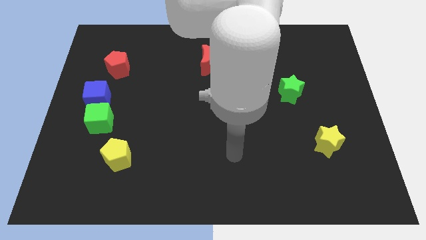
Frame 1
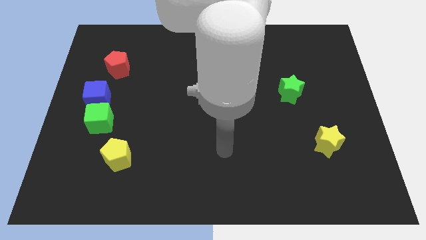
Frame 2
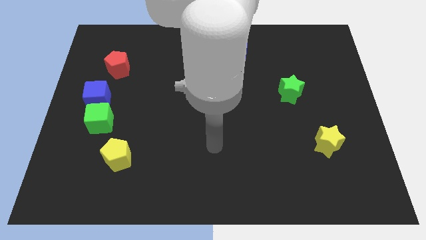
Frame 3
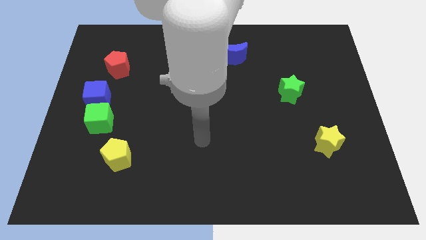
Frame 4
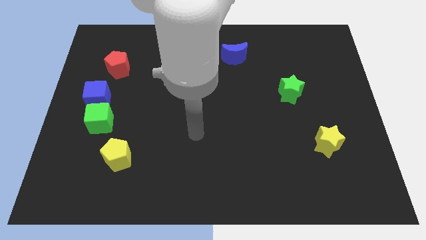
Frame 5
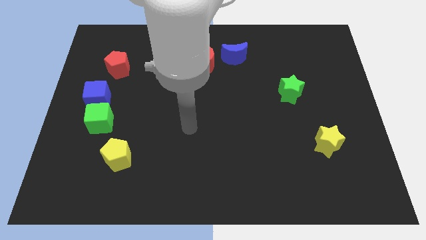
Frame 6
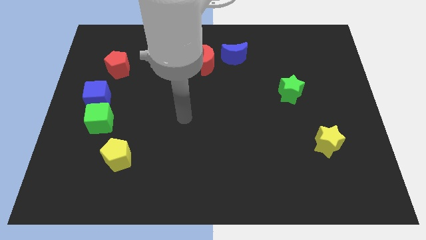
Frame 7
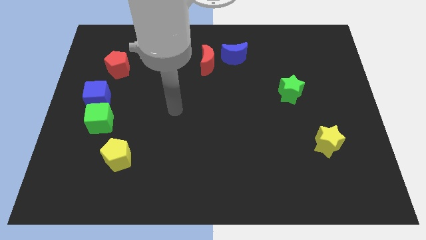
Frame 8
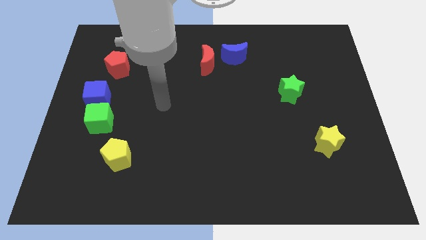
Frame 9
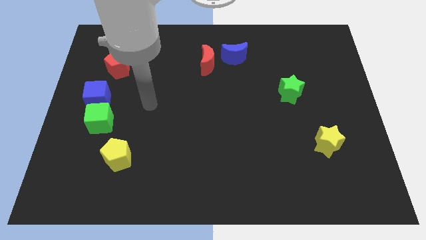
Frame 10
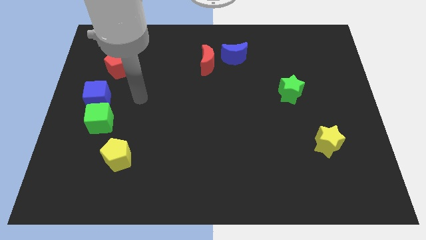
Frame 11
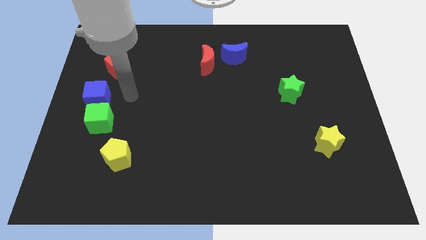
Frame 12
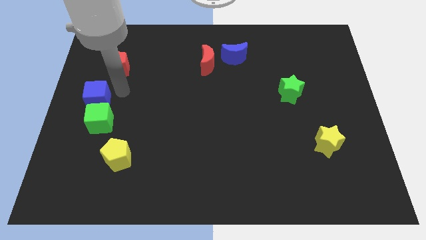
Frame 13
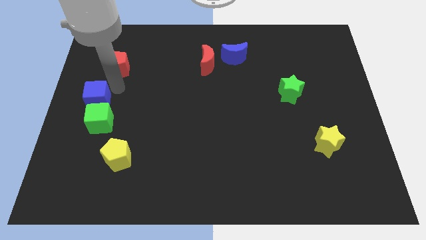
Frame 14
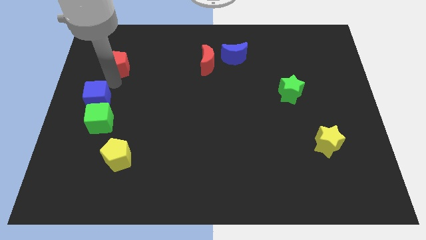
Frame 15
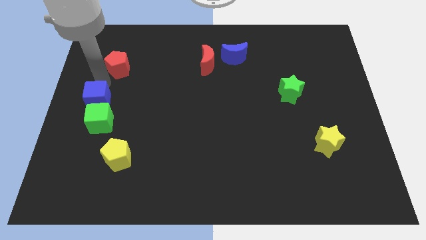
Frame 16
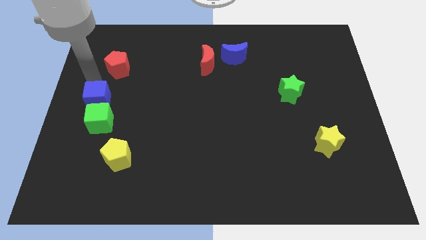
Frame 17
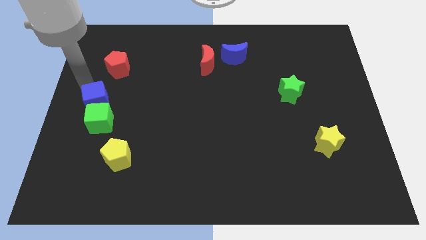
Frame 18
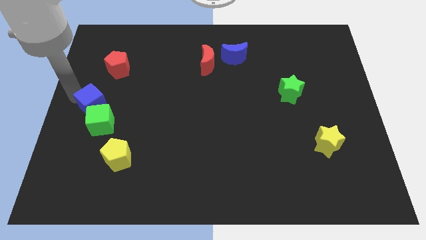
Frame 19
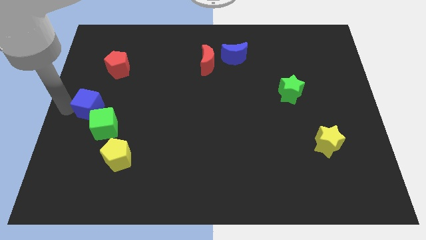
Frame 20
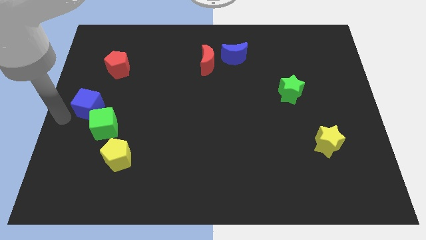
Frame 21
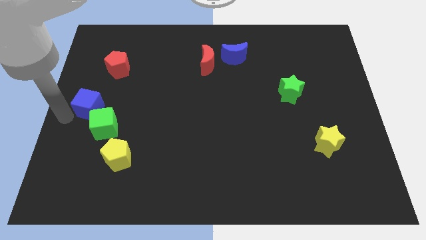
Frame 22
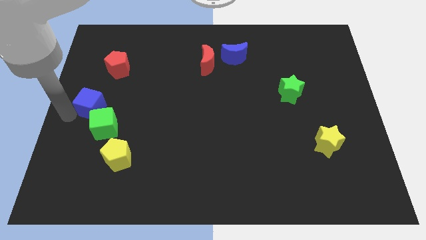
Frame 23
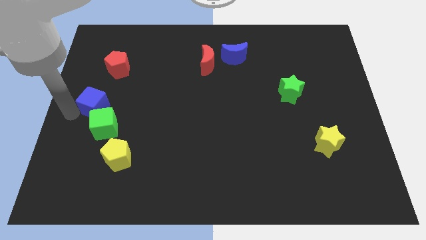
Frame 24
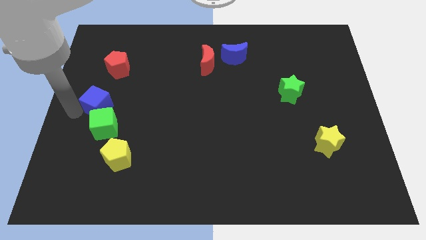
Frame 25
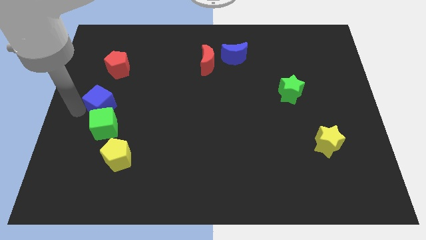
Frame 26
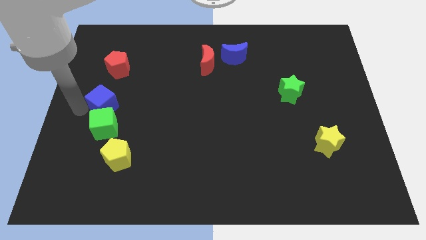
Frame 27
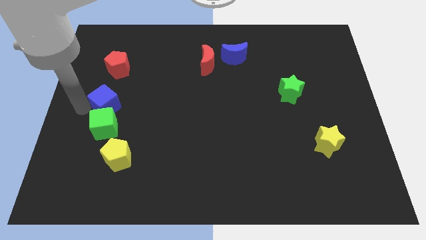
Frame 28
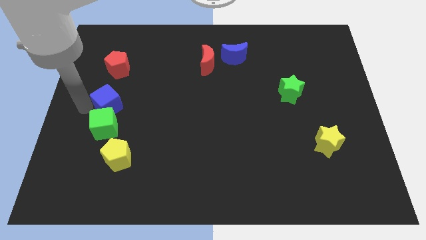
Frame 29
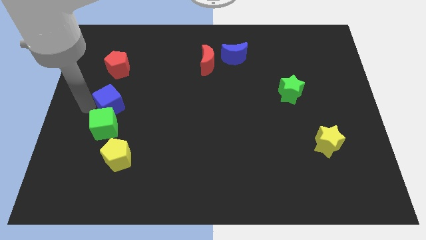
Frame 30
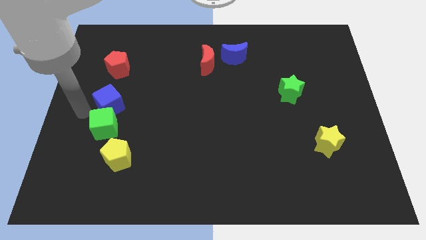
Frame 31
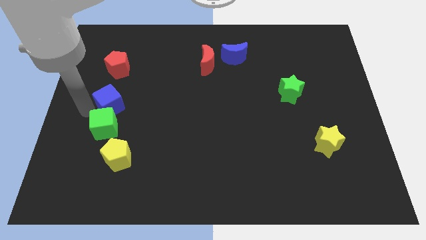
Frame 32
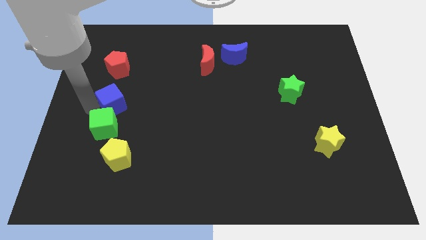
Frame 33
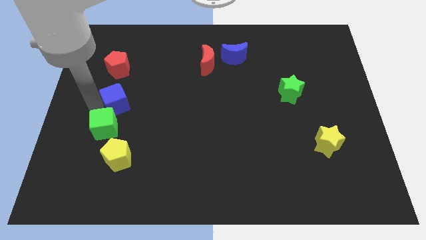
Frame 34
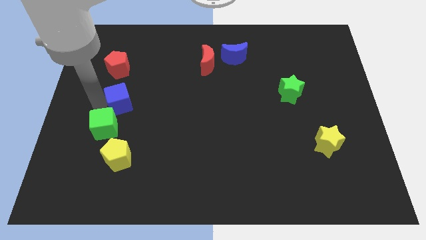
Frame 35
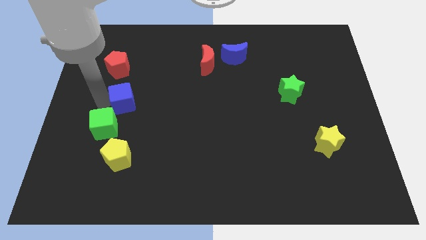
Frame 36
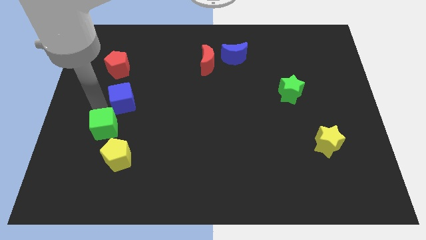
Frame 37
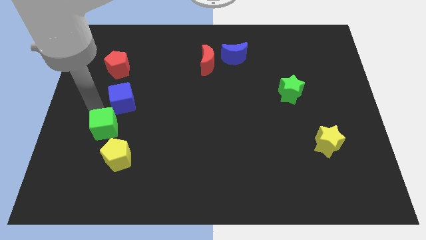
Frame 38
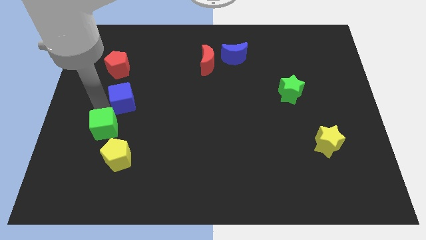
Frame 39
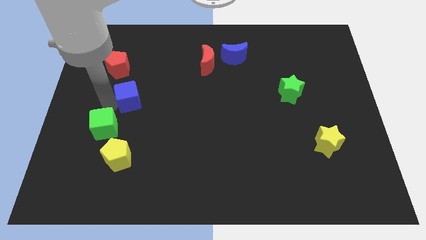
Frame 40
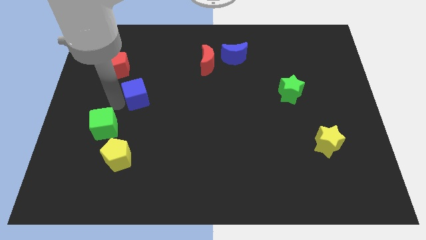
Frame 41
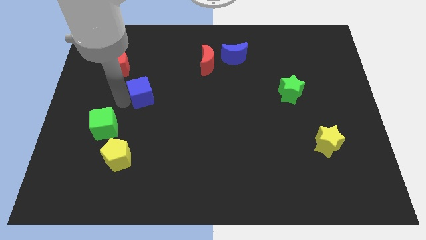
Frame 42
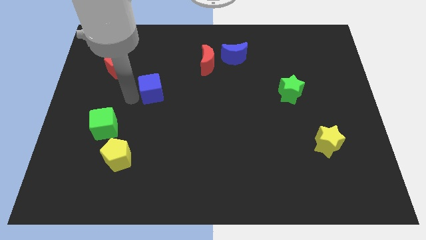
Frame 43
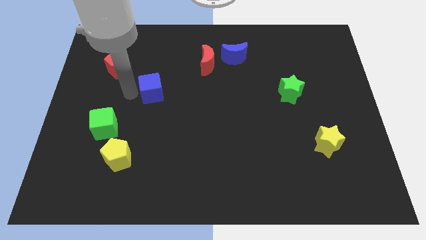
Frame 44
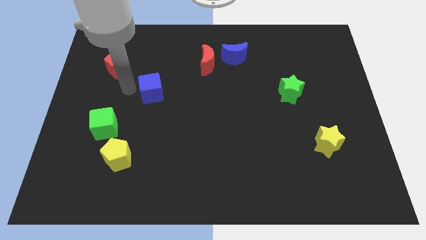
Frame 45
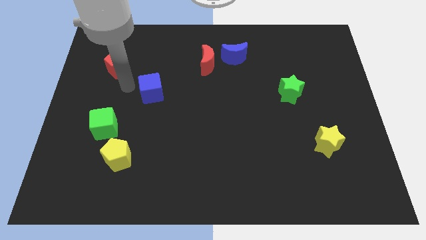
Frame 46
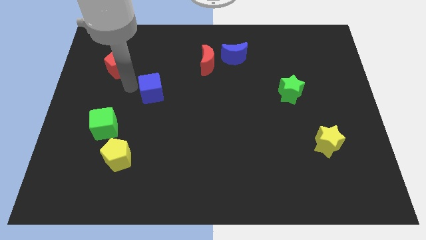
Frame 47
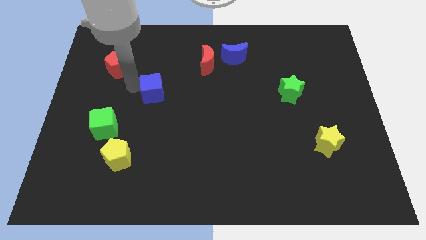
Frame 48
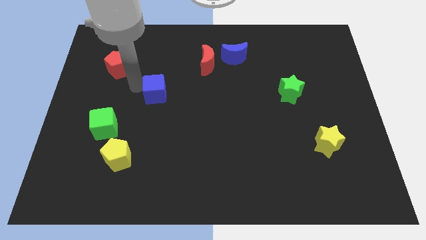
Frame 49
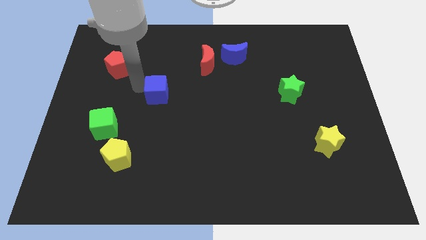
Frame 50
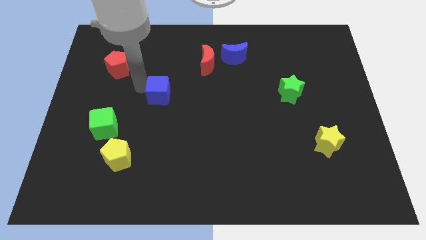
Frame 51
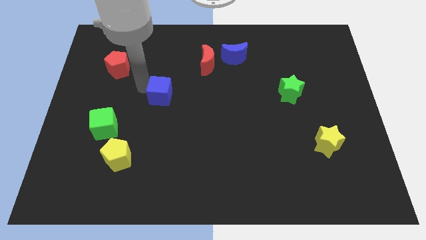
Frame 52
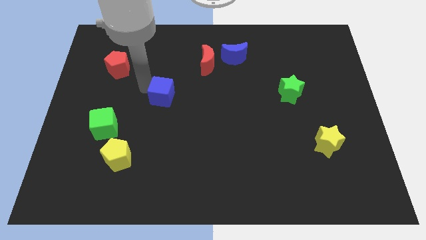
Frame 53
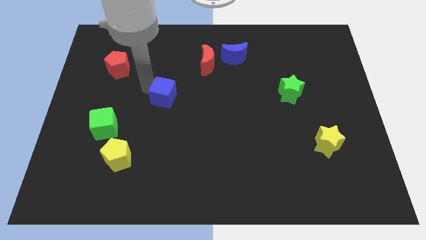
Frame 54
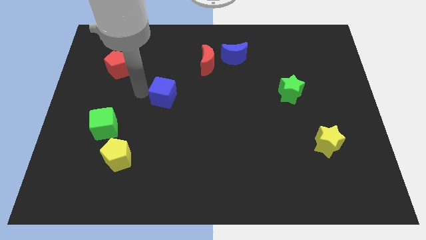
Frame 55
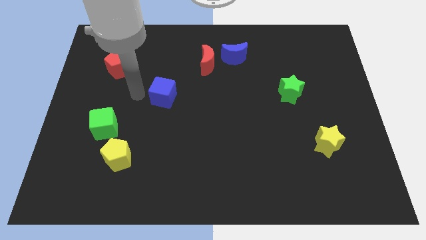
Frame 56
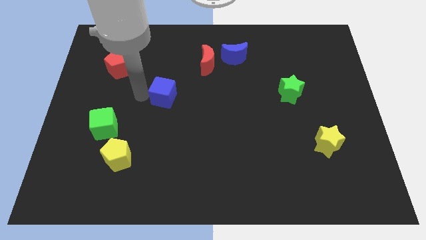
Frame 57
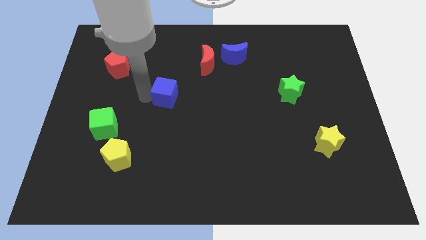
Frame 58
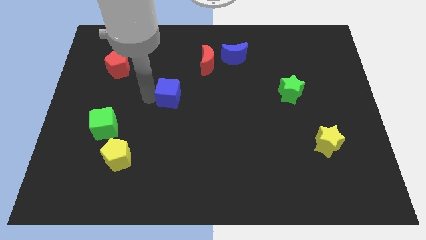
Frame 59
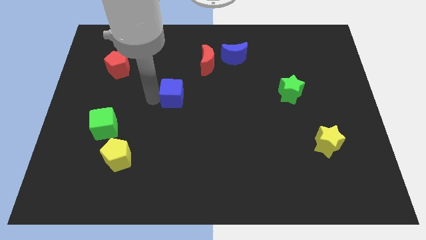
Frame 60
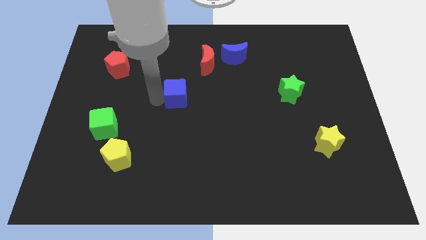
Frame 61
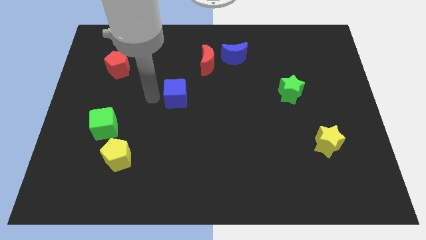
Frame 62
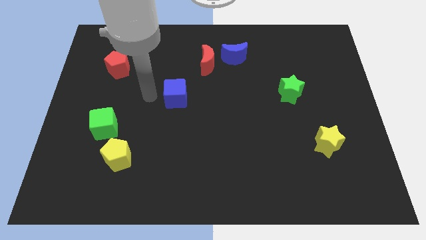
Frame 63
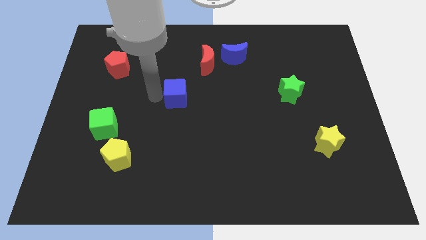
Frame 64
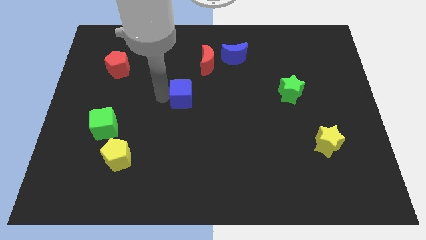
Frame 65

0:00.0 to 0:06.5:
move the blue cube to the right

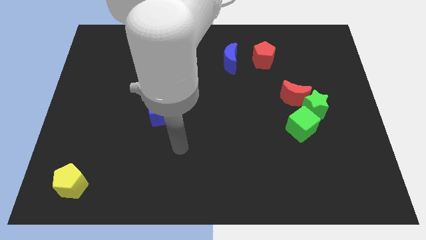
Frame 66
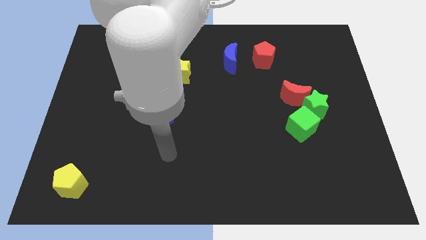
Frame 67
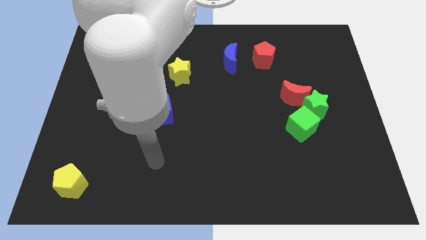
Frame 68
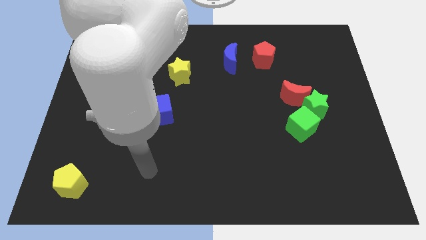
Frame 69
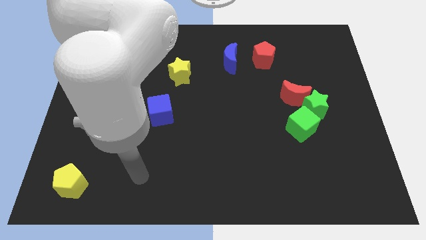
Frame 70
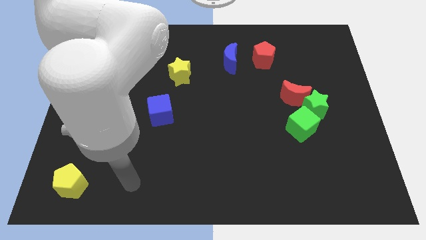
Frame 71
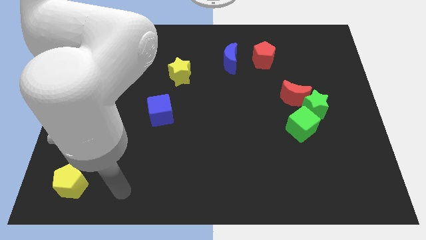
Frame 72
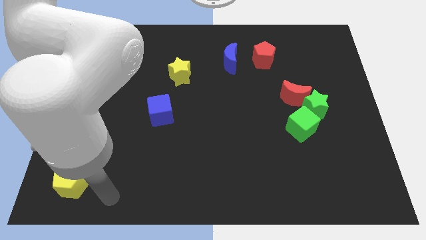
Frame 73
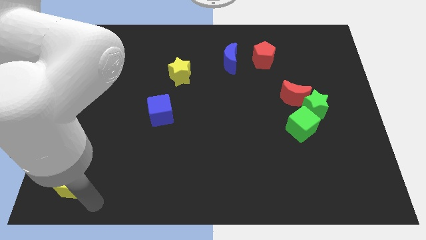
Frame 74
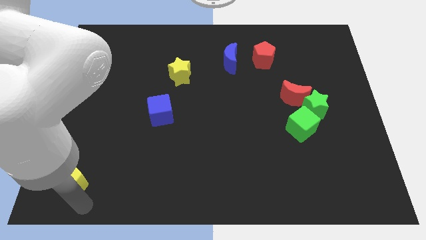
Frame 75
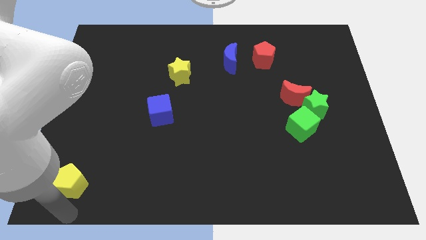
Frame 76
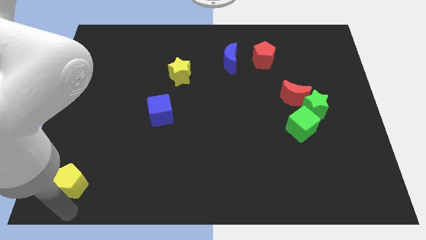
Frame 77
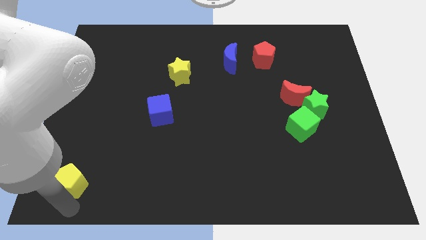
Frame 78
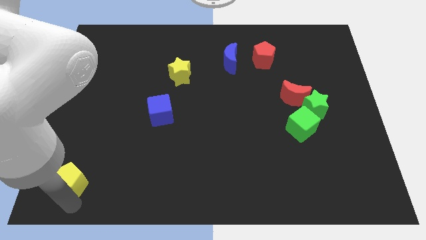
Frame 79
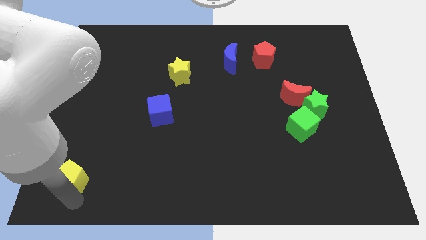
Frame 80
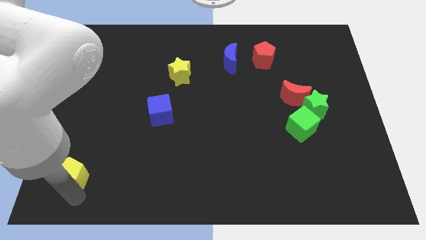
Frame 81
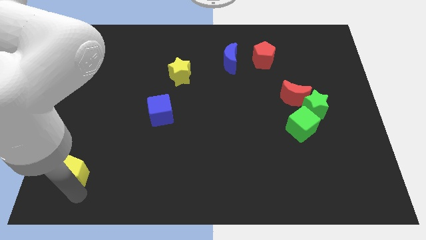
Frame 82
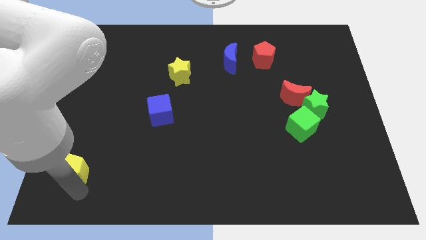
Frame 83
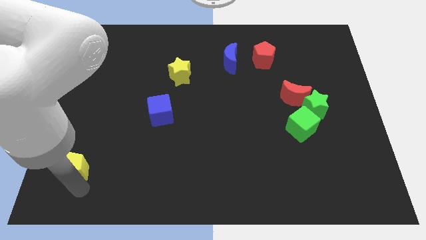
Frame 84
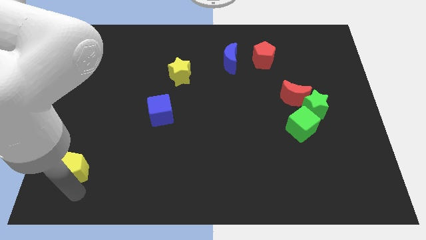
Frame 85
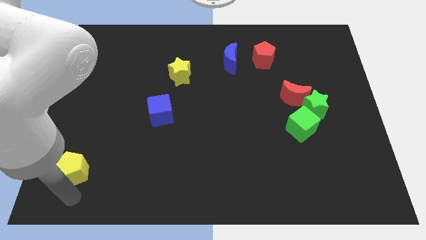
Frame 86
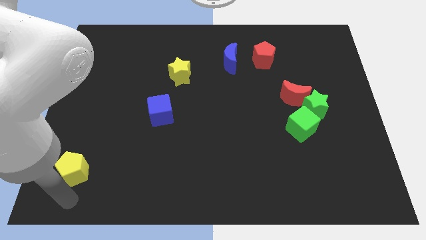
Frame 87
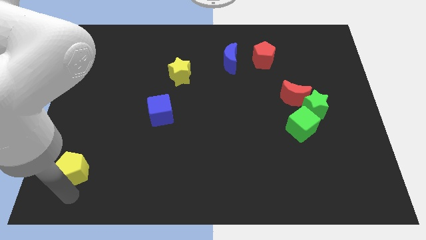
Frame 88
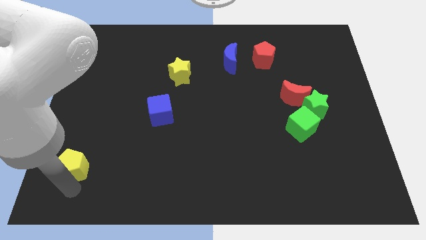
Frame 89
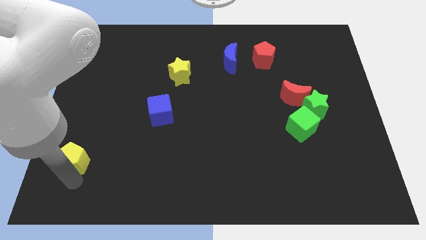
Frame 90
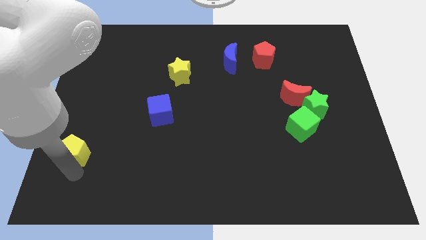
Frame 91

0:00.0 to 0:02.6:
move the yellow pentagon somewhat up
